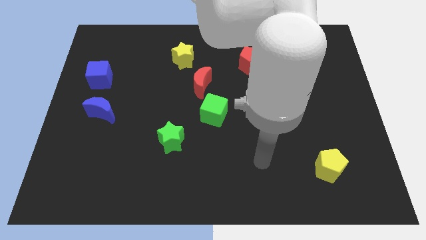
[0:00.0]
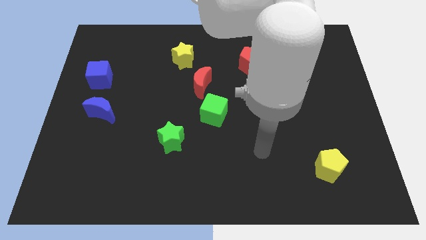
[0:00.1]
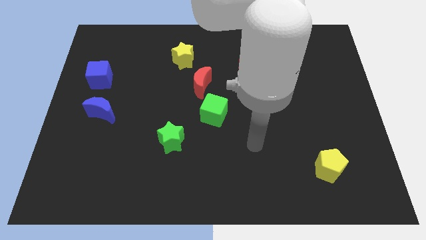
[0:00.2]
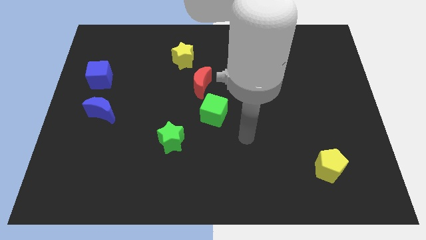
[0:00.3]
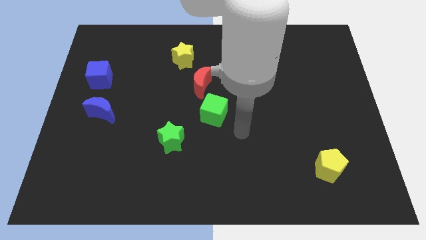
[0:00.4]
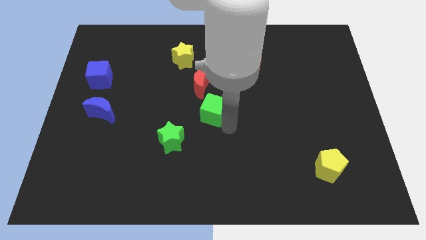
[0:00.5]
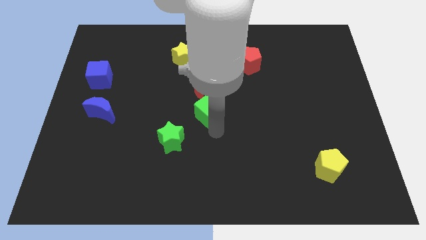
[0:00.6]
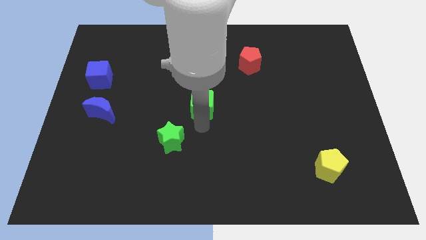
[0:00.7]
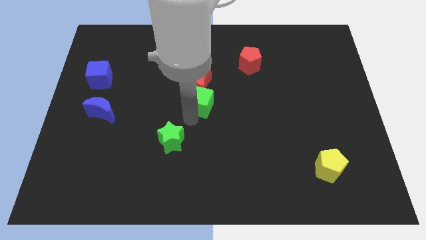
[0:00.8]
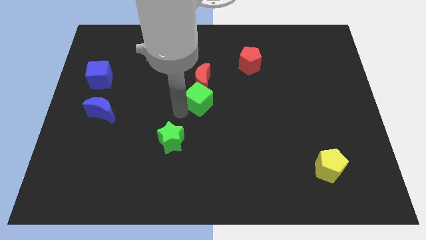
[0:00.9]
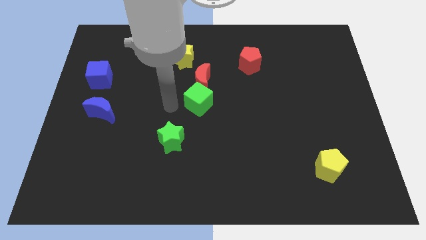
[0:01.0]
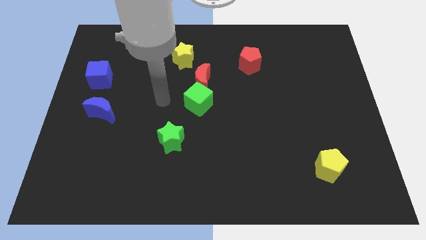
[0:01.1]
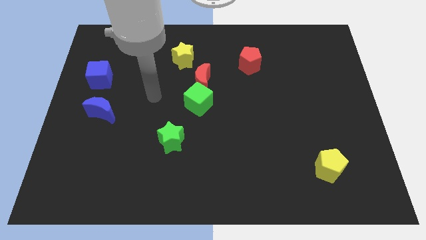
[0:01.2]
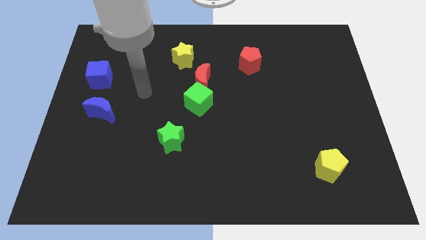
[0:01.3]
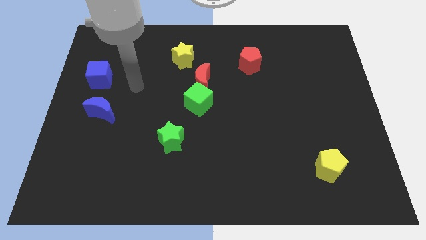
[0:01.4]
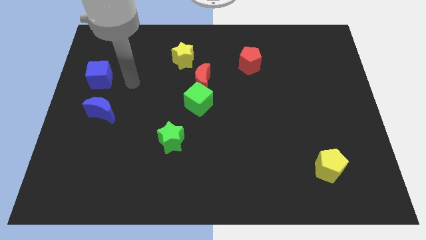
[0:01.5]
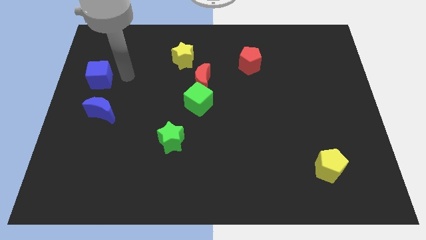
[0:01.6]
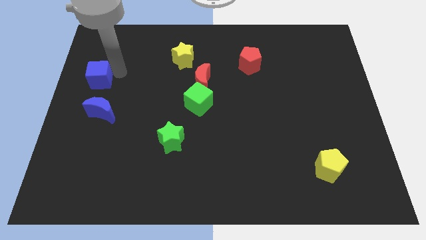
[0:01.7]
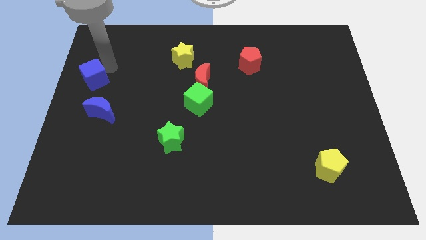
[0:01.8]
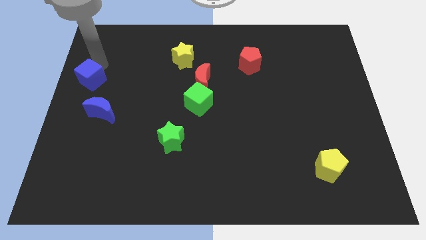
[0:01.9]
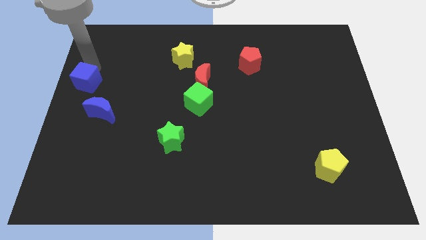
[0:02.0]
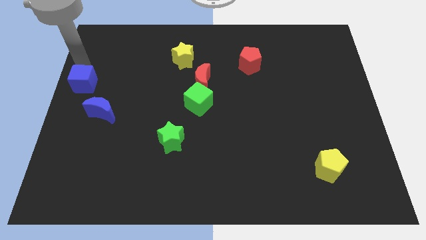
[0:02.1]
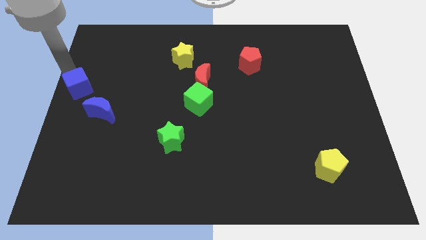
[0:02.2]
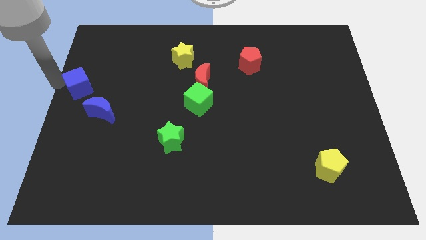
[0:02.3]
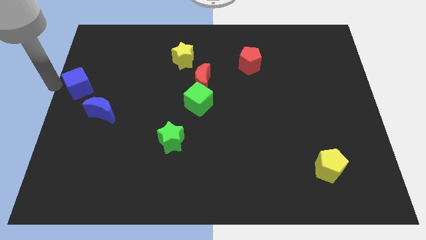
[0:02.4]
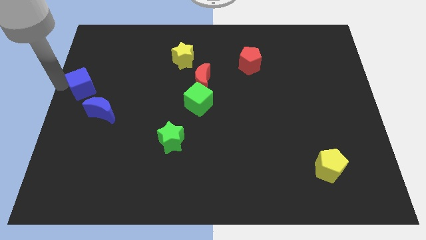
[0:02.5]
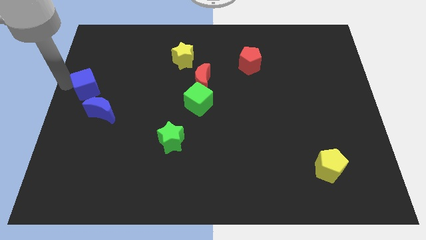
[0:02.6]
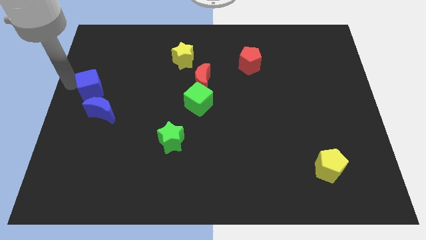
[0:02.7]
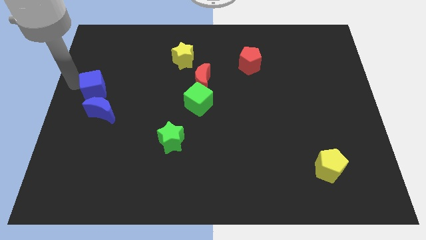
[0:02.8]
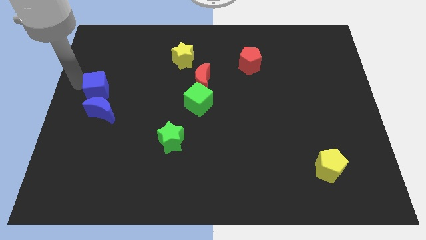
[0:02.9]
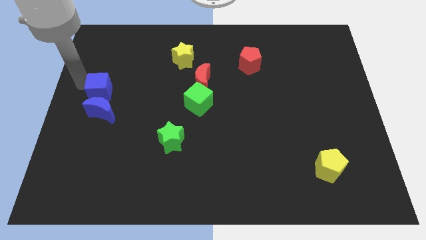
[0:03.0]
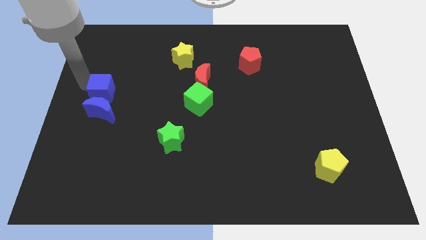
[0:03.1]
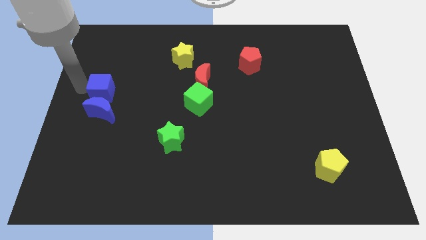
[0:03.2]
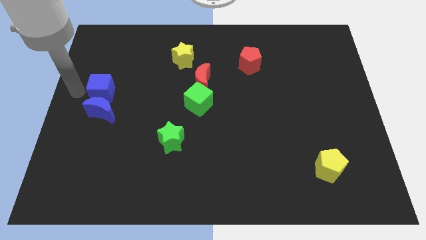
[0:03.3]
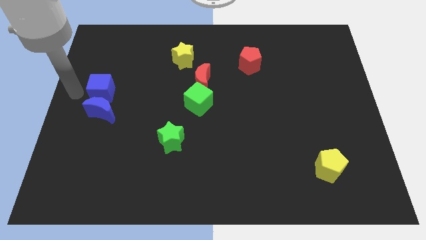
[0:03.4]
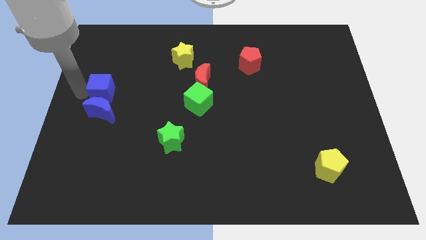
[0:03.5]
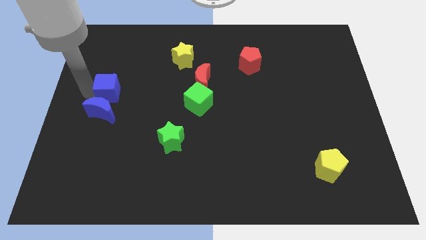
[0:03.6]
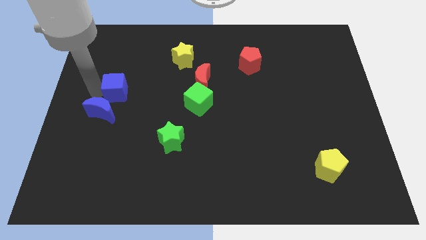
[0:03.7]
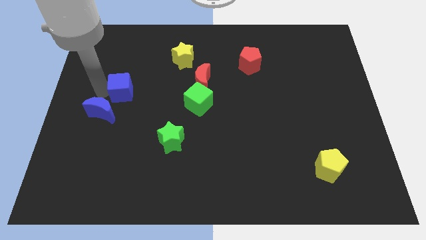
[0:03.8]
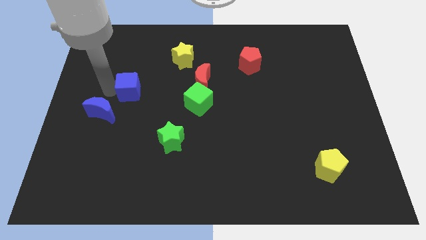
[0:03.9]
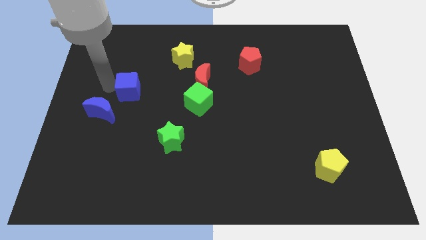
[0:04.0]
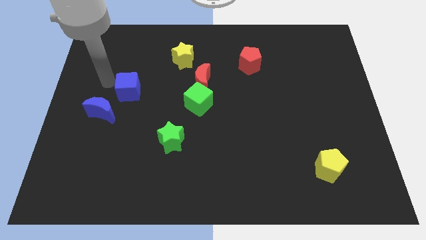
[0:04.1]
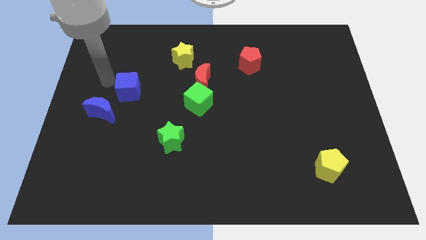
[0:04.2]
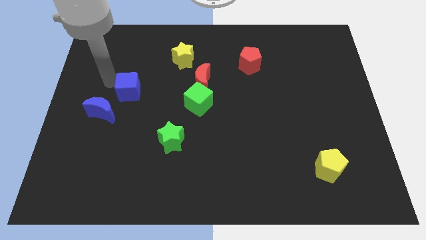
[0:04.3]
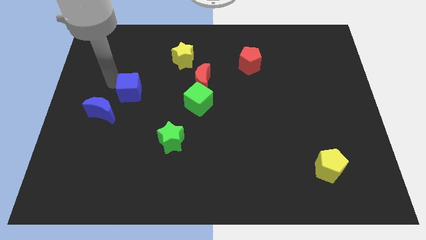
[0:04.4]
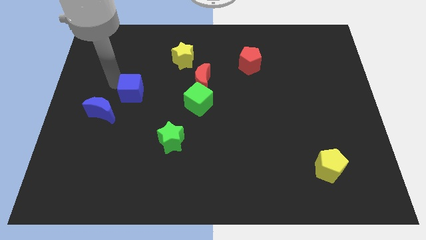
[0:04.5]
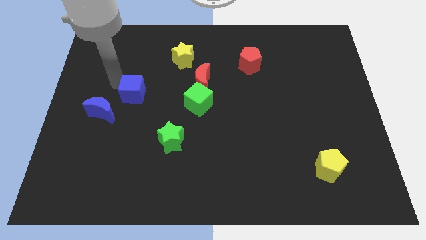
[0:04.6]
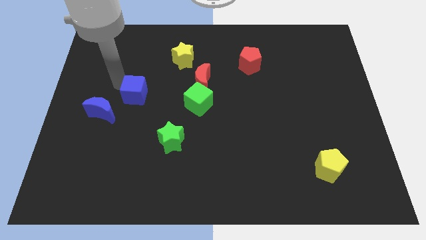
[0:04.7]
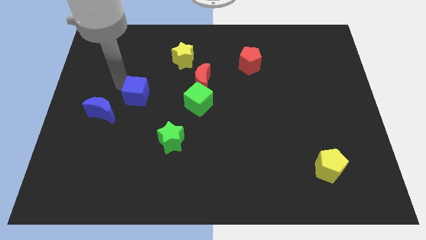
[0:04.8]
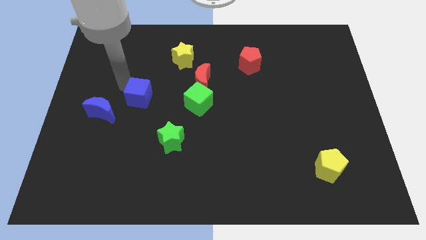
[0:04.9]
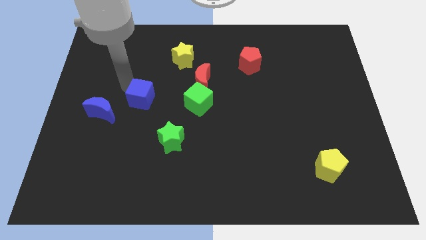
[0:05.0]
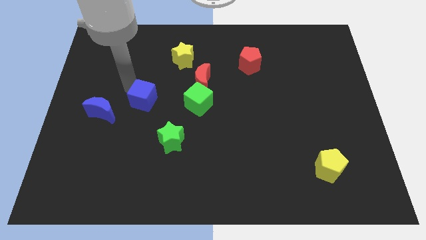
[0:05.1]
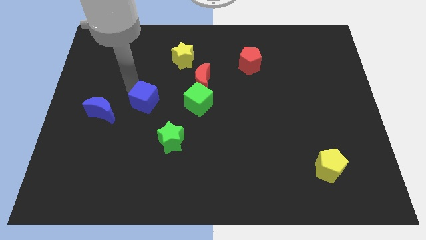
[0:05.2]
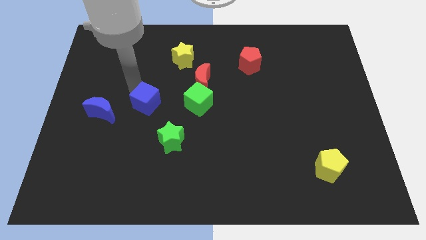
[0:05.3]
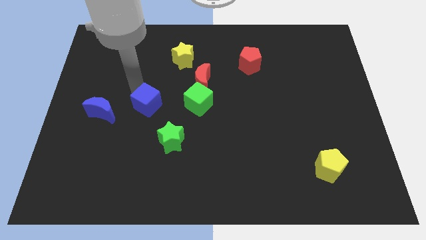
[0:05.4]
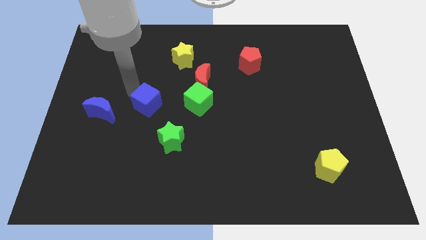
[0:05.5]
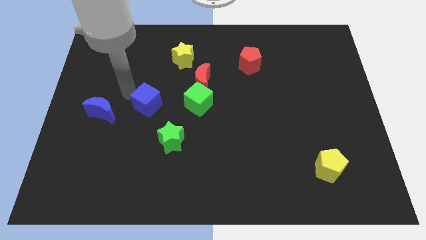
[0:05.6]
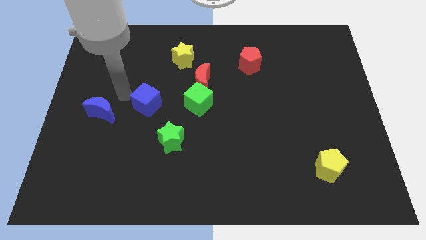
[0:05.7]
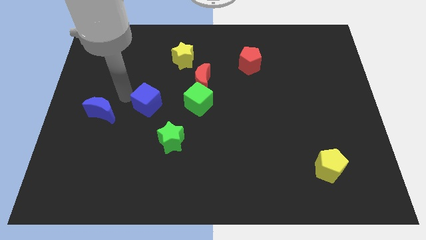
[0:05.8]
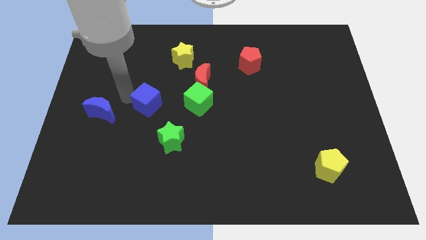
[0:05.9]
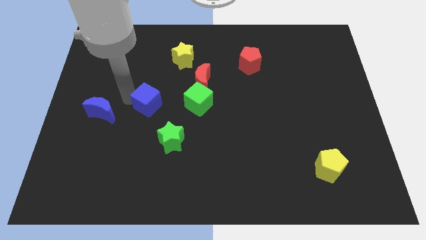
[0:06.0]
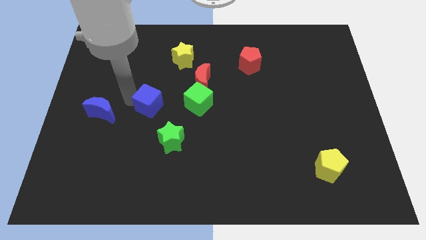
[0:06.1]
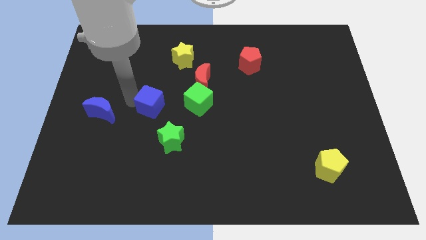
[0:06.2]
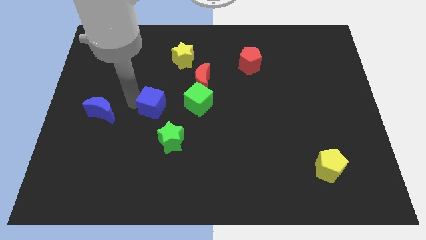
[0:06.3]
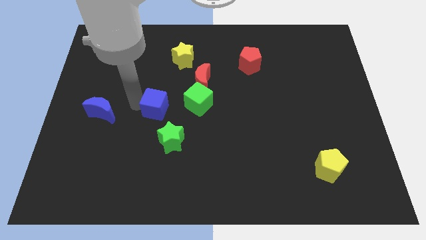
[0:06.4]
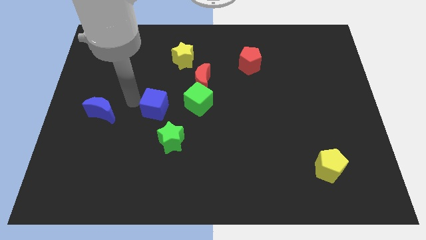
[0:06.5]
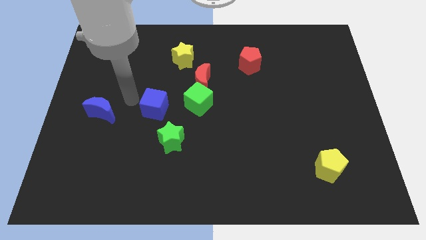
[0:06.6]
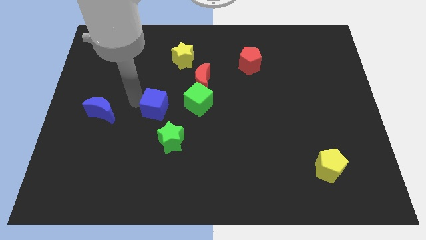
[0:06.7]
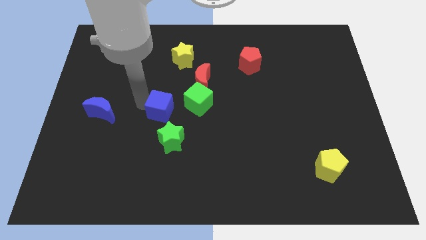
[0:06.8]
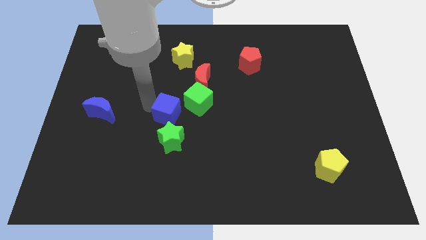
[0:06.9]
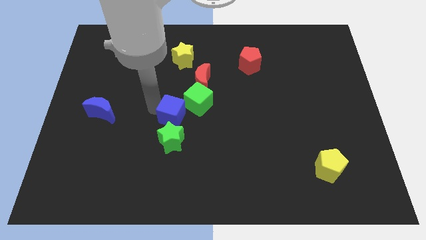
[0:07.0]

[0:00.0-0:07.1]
move the blue cube diagonally down and right

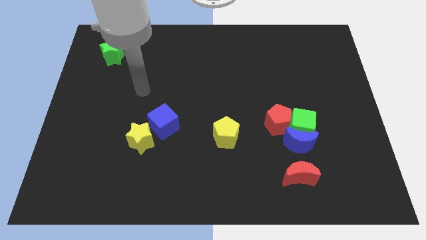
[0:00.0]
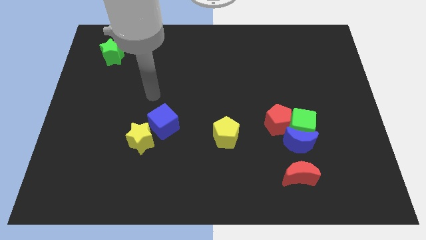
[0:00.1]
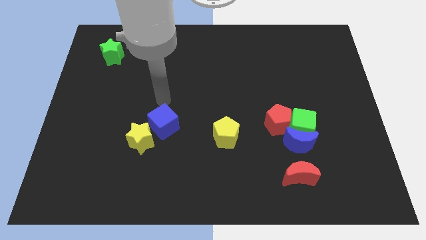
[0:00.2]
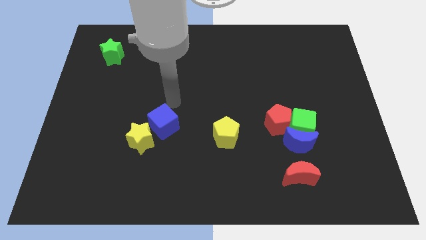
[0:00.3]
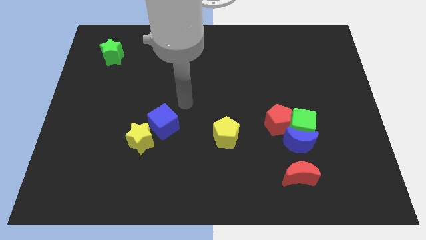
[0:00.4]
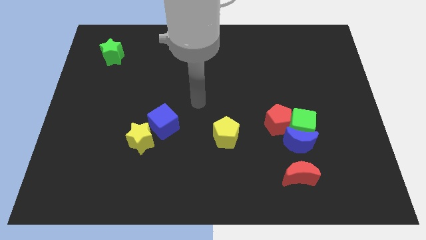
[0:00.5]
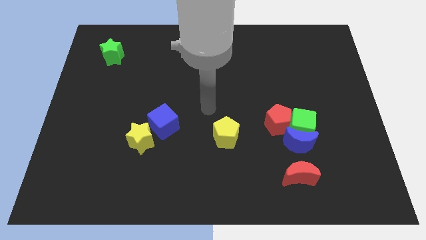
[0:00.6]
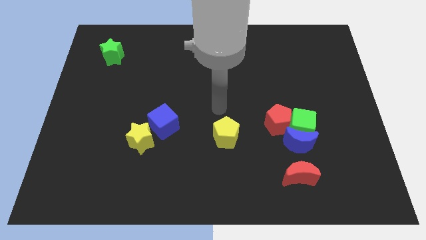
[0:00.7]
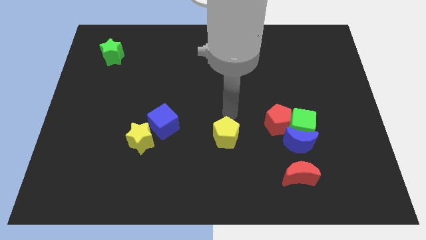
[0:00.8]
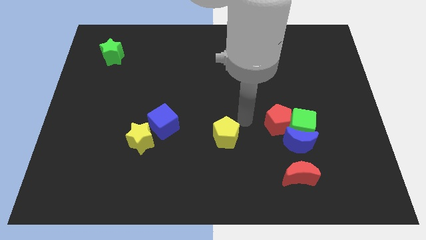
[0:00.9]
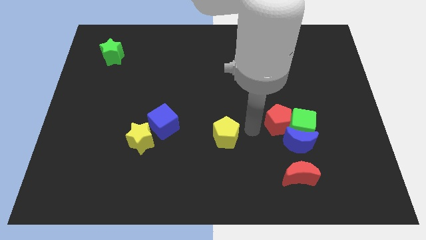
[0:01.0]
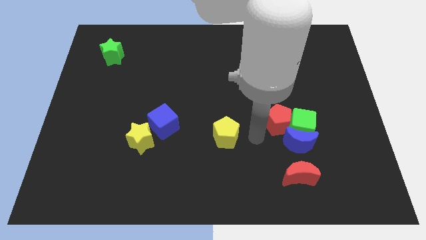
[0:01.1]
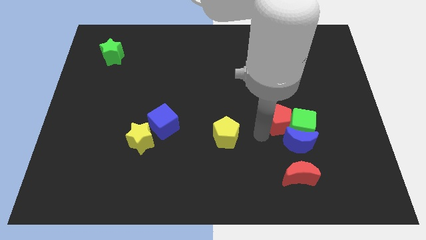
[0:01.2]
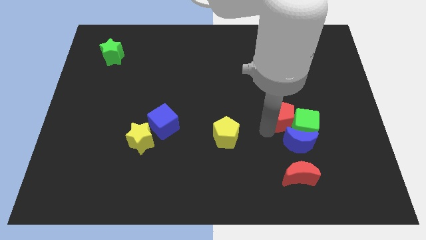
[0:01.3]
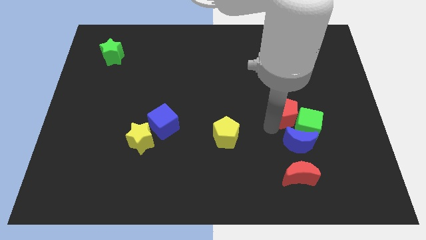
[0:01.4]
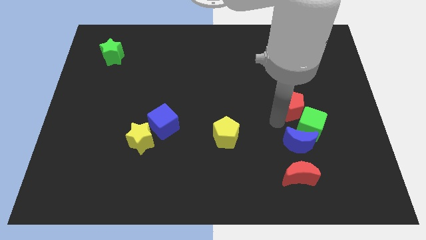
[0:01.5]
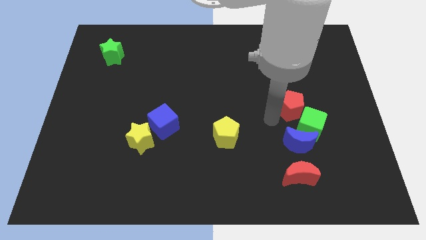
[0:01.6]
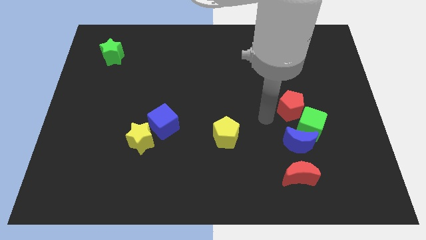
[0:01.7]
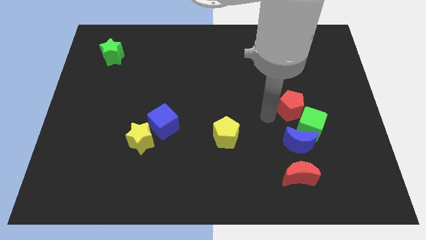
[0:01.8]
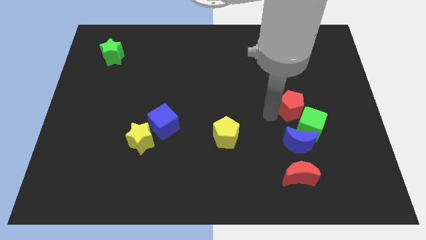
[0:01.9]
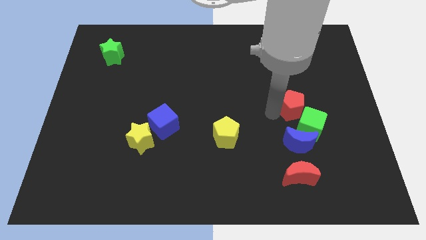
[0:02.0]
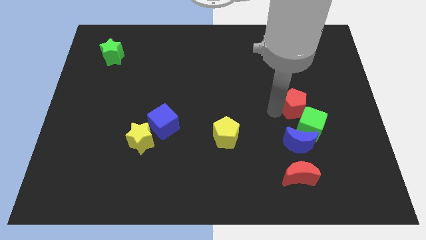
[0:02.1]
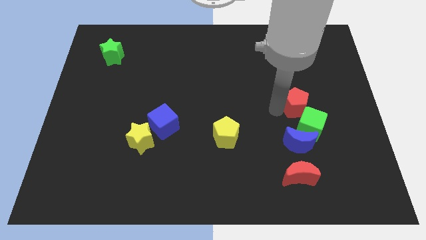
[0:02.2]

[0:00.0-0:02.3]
push the red pentagon slightly upwards and then to the right
